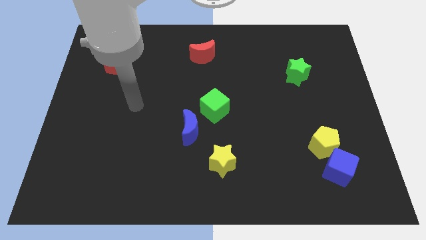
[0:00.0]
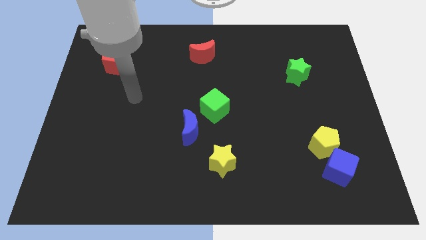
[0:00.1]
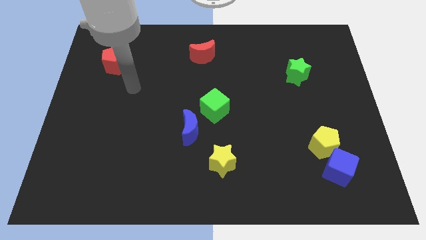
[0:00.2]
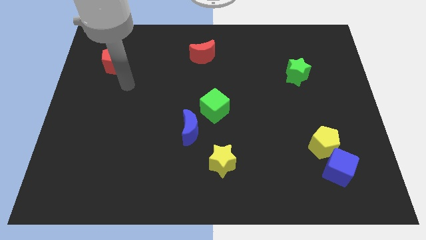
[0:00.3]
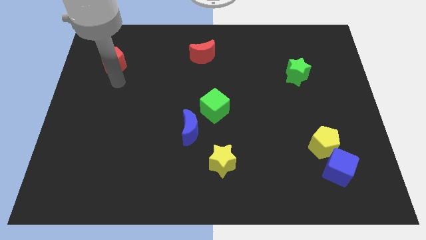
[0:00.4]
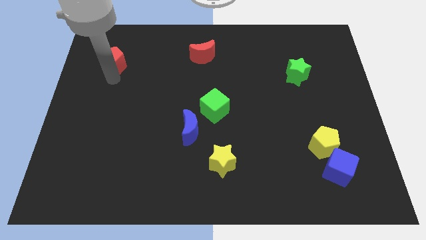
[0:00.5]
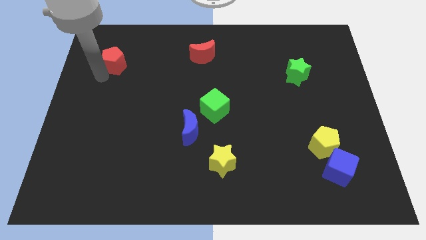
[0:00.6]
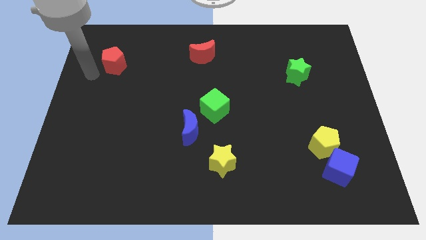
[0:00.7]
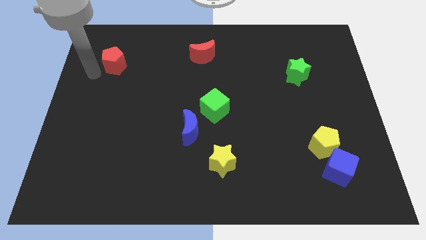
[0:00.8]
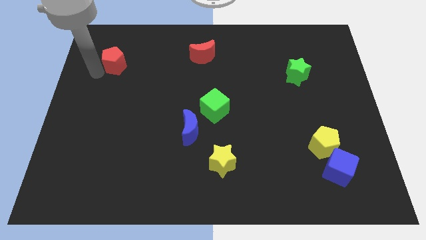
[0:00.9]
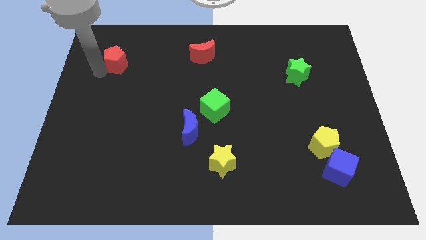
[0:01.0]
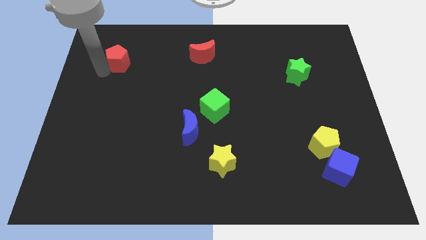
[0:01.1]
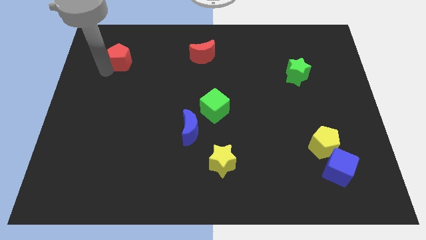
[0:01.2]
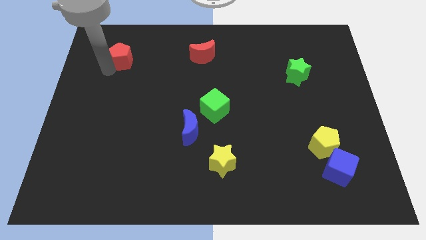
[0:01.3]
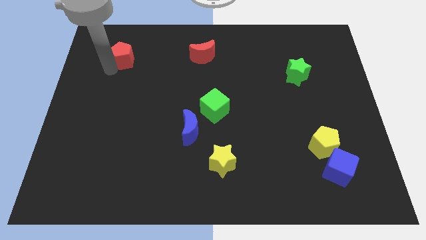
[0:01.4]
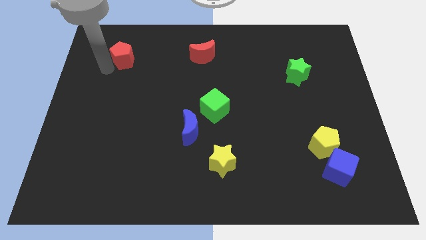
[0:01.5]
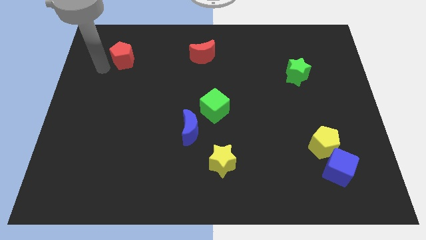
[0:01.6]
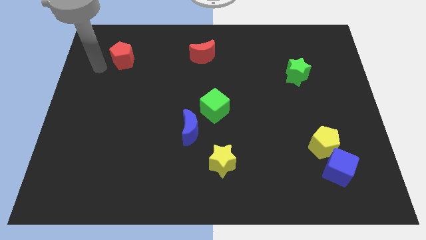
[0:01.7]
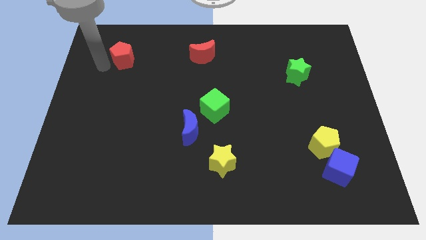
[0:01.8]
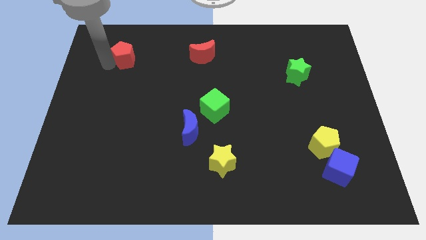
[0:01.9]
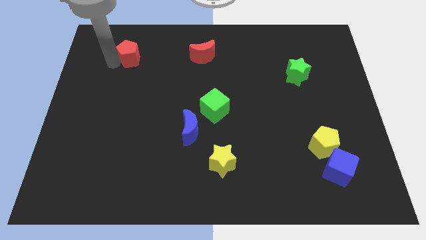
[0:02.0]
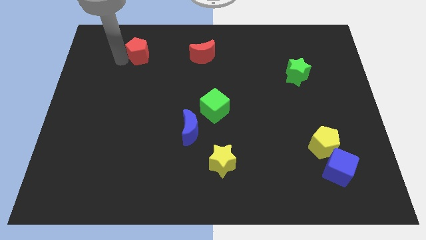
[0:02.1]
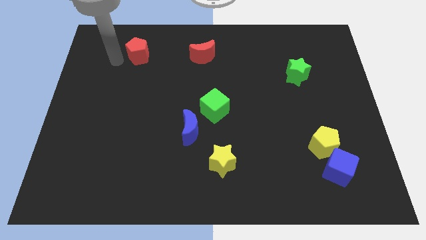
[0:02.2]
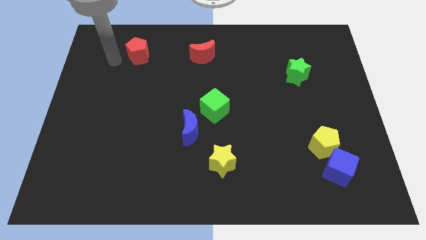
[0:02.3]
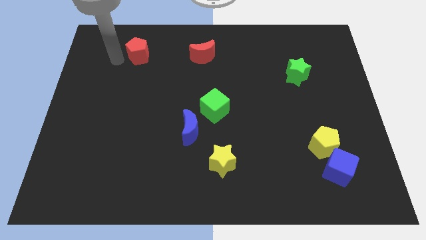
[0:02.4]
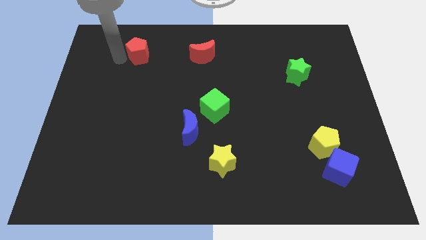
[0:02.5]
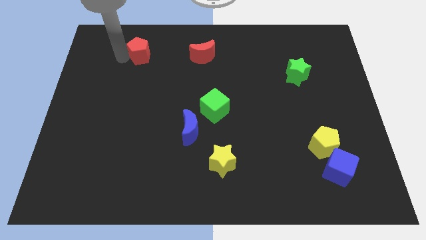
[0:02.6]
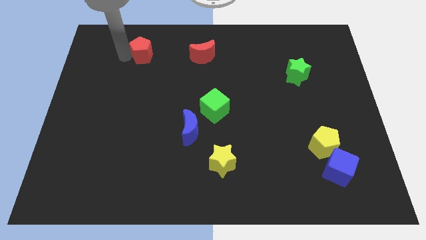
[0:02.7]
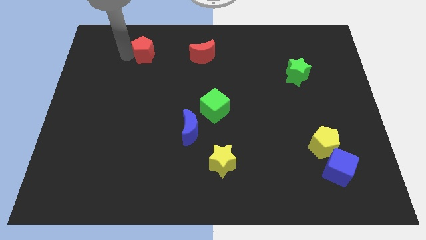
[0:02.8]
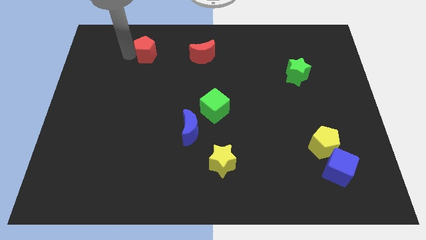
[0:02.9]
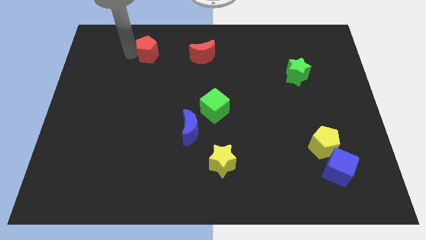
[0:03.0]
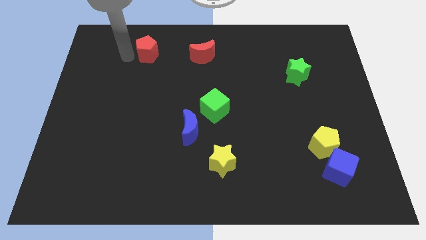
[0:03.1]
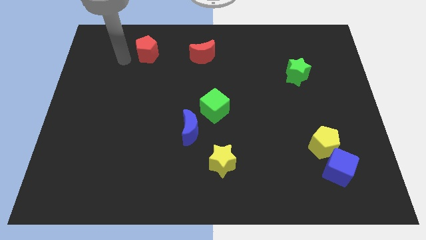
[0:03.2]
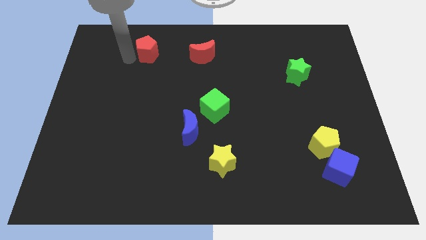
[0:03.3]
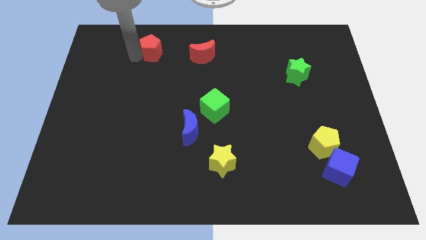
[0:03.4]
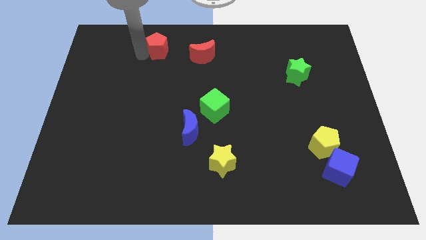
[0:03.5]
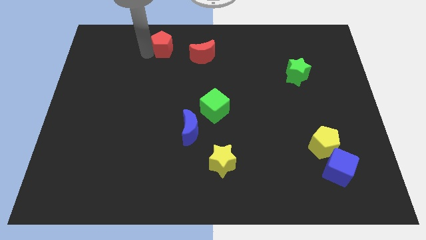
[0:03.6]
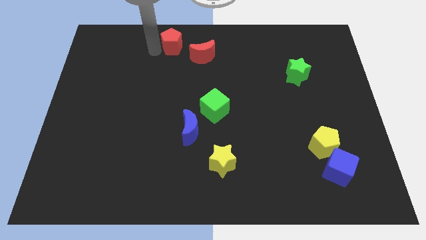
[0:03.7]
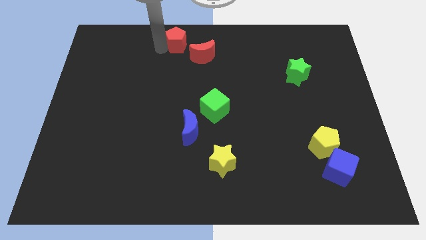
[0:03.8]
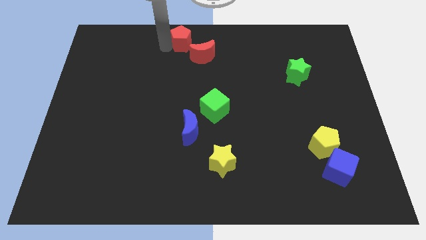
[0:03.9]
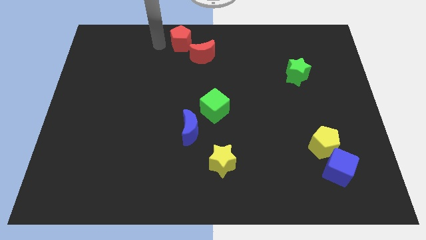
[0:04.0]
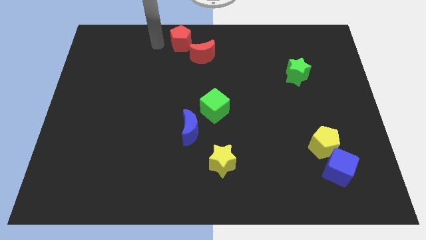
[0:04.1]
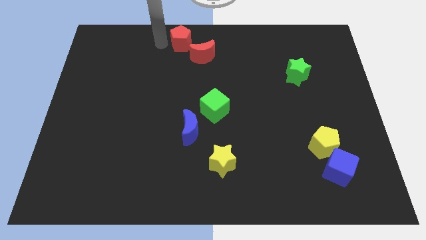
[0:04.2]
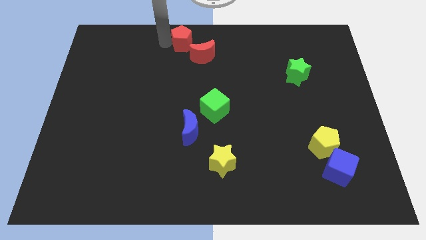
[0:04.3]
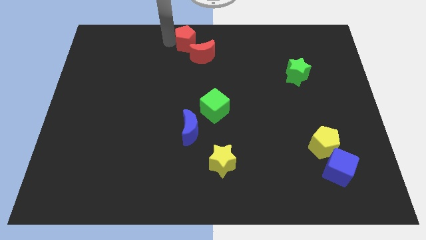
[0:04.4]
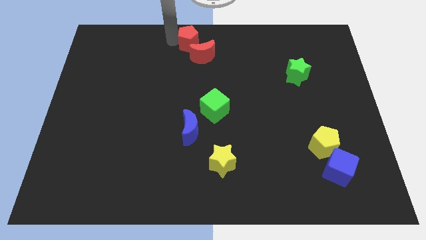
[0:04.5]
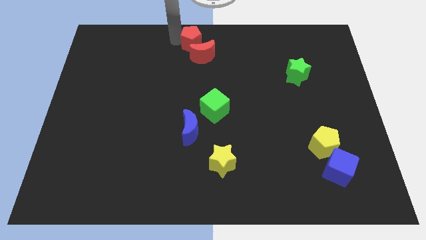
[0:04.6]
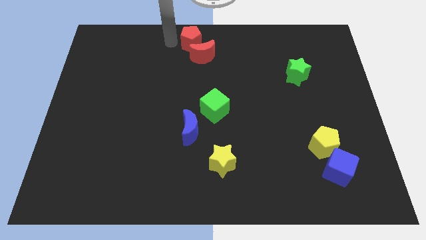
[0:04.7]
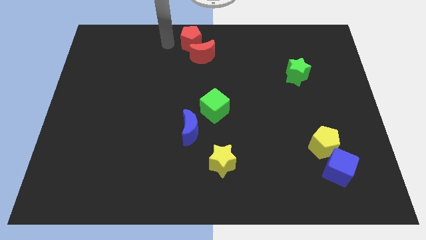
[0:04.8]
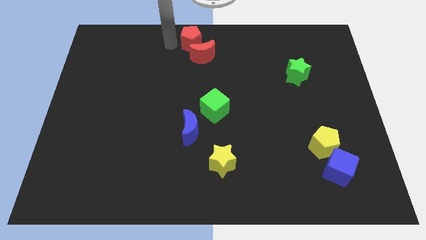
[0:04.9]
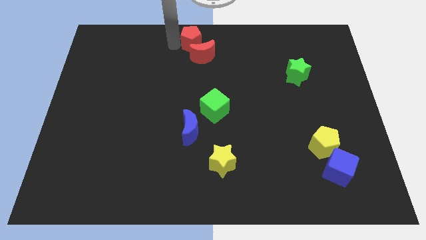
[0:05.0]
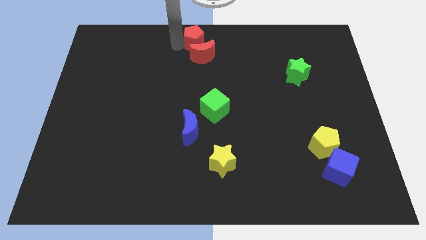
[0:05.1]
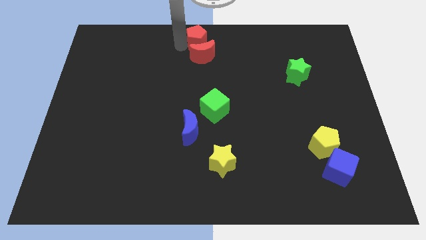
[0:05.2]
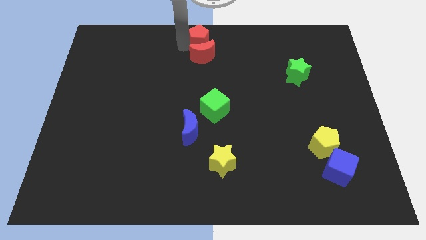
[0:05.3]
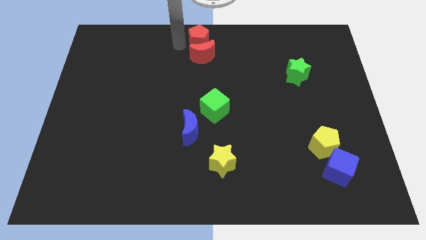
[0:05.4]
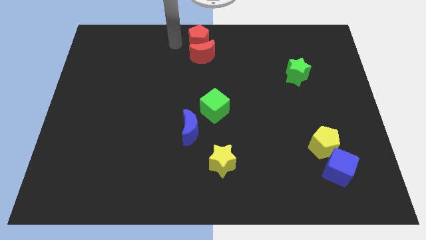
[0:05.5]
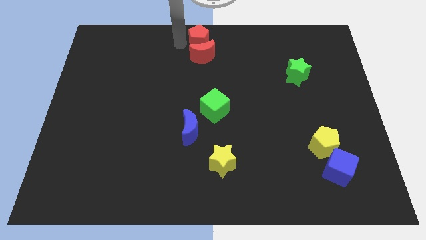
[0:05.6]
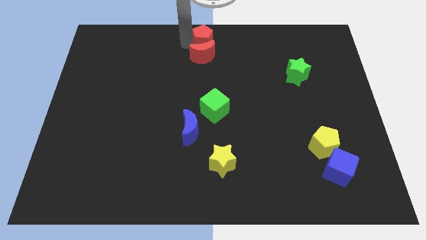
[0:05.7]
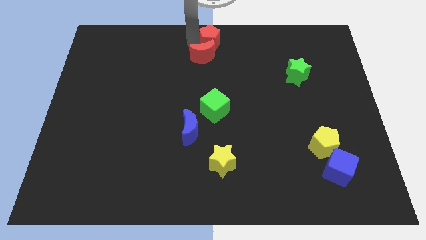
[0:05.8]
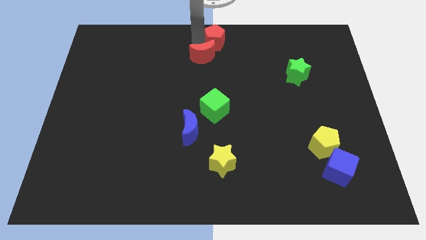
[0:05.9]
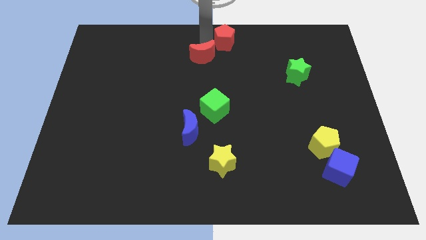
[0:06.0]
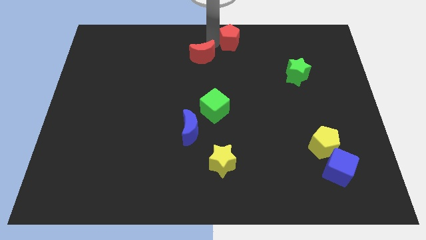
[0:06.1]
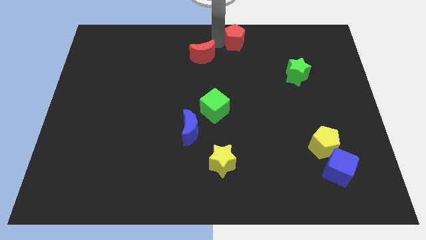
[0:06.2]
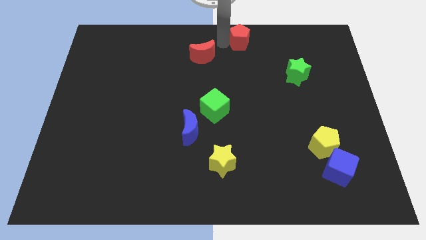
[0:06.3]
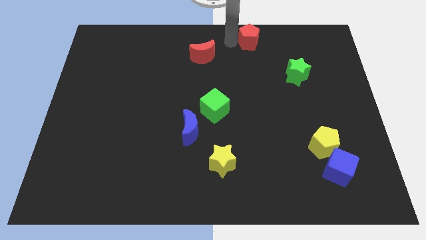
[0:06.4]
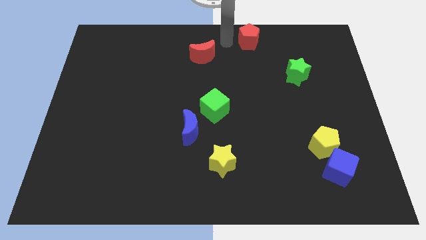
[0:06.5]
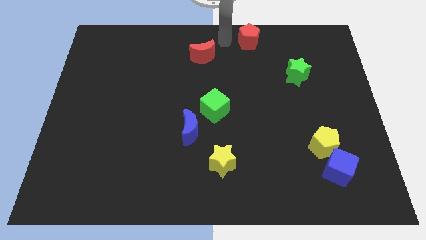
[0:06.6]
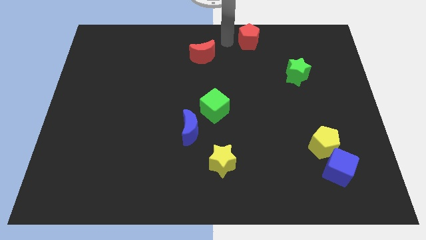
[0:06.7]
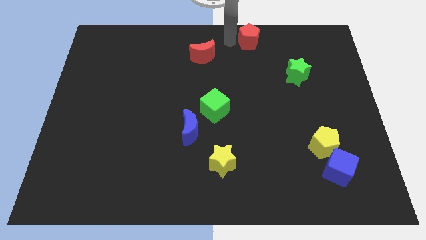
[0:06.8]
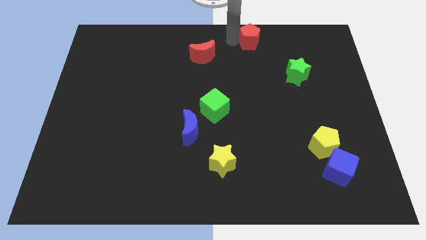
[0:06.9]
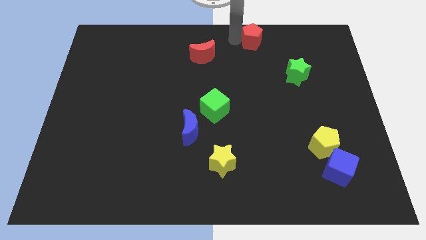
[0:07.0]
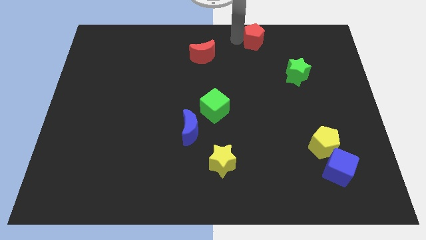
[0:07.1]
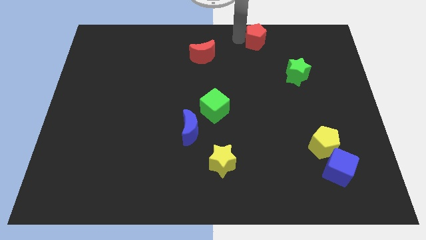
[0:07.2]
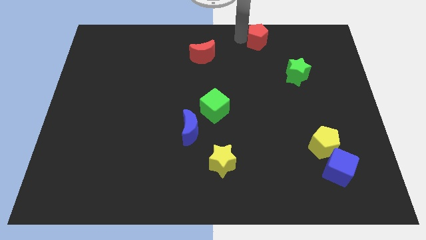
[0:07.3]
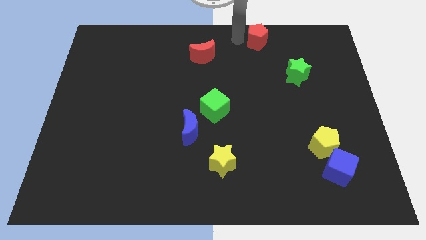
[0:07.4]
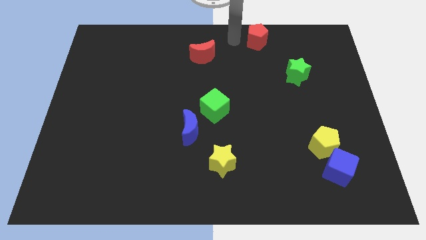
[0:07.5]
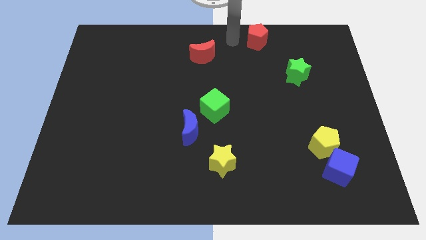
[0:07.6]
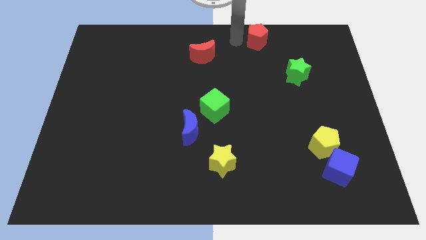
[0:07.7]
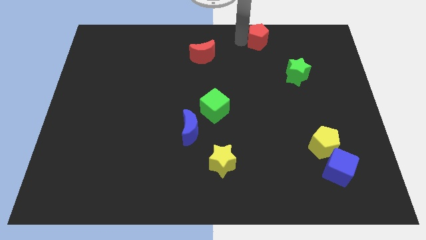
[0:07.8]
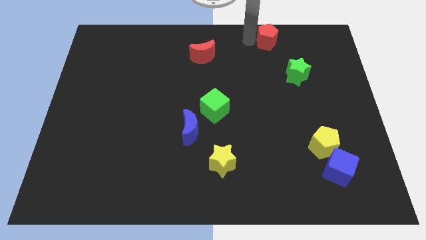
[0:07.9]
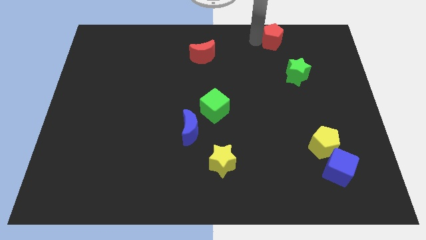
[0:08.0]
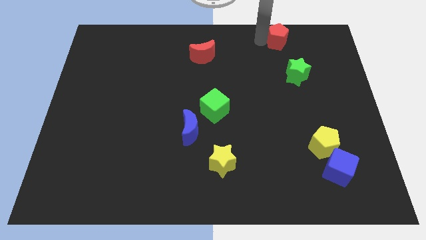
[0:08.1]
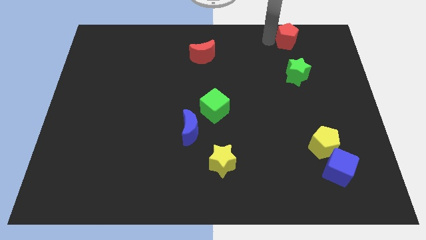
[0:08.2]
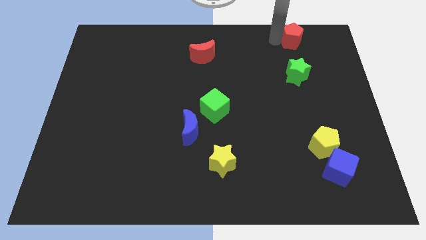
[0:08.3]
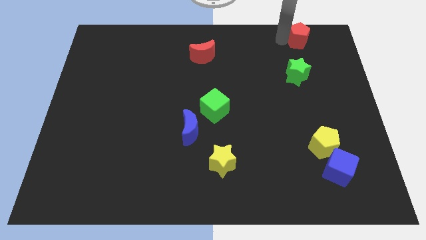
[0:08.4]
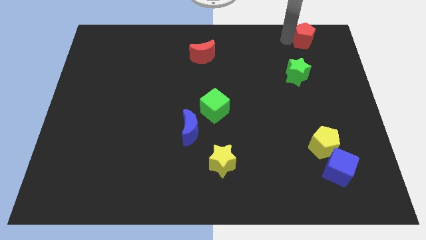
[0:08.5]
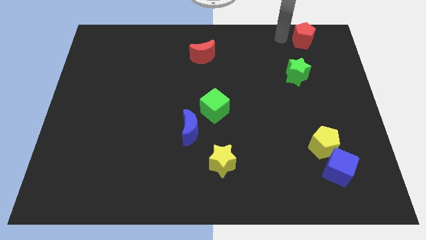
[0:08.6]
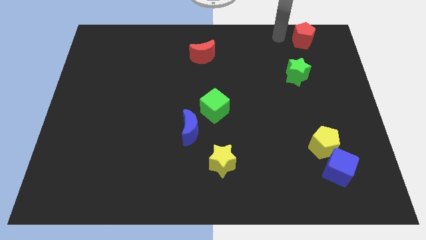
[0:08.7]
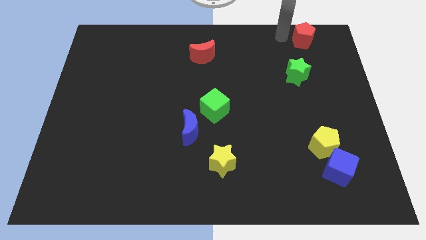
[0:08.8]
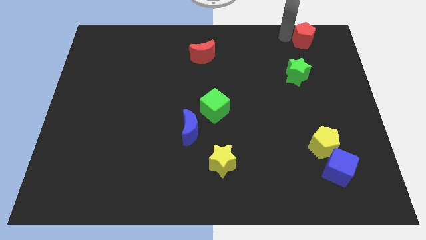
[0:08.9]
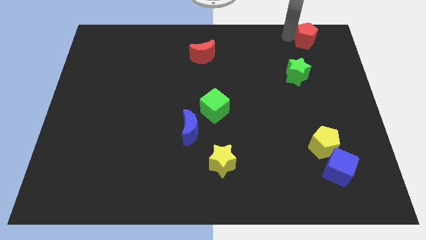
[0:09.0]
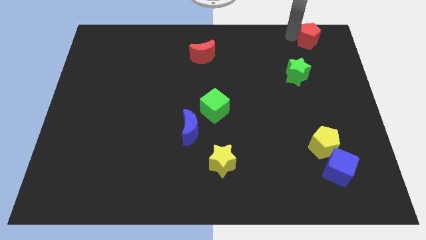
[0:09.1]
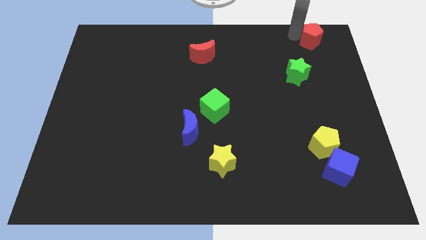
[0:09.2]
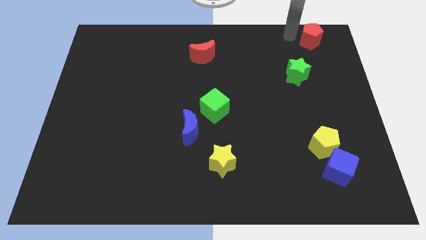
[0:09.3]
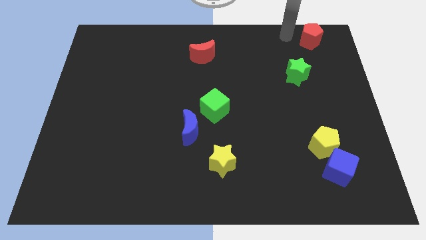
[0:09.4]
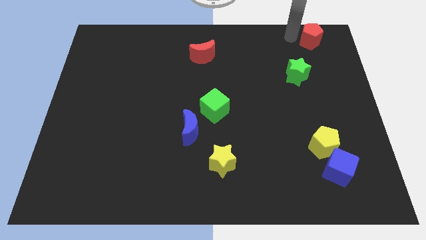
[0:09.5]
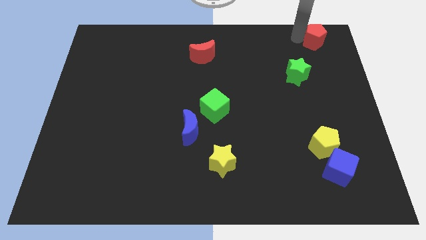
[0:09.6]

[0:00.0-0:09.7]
put the red pentagon to the top right corner
